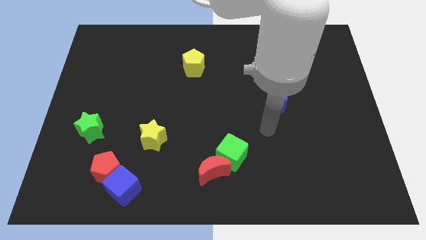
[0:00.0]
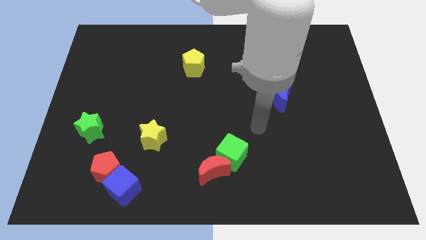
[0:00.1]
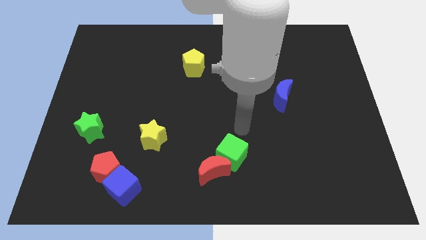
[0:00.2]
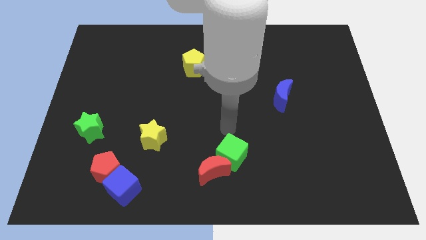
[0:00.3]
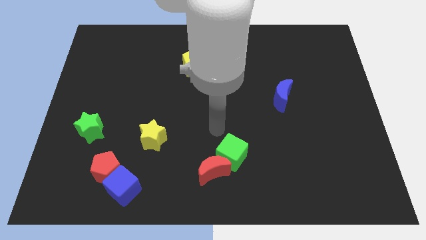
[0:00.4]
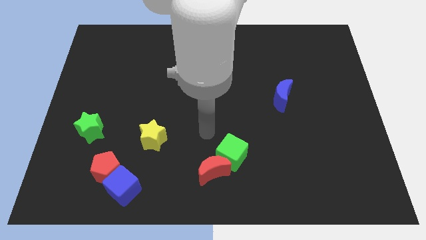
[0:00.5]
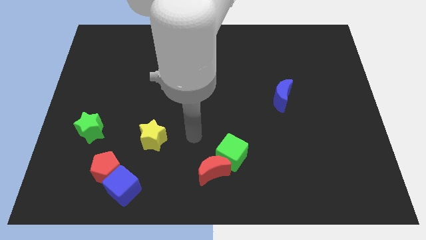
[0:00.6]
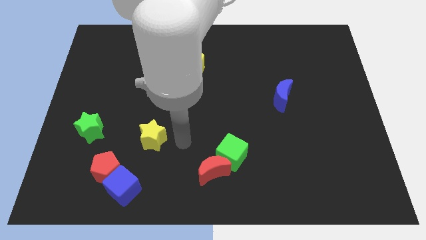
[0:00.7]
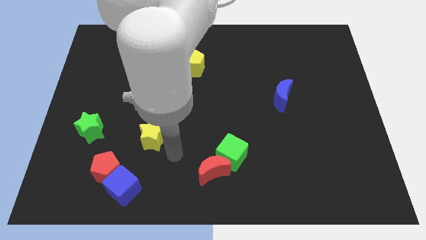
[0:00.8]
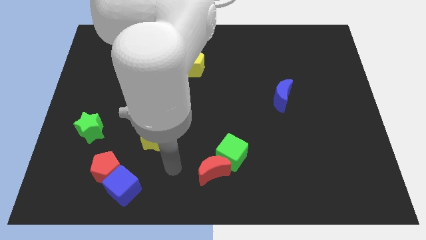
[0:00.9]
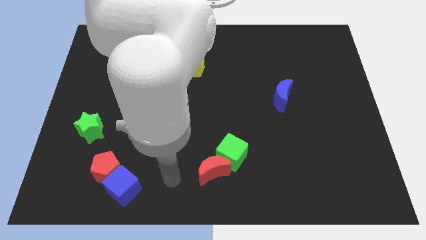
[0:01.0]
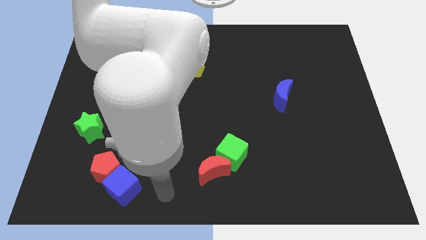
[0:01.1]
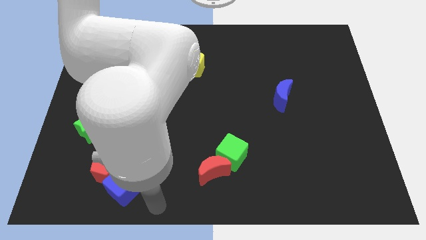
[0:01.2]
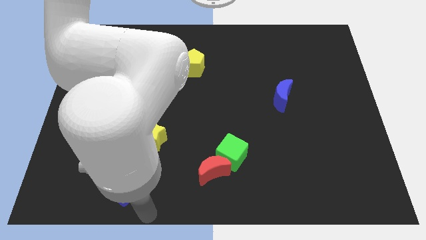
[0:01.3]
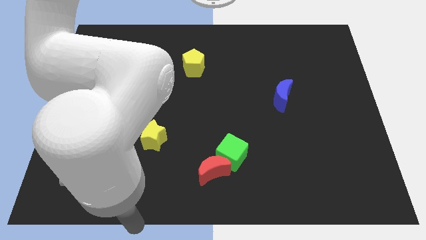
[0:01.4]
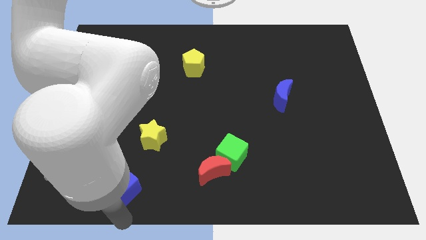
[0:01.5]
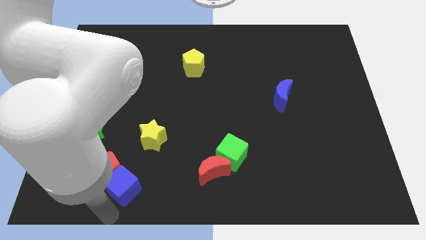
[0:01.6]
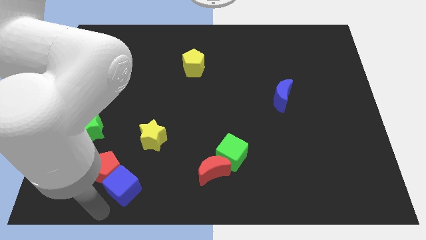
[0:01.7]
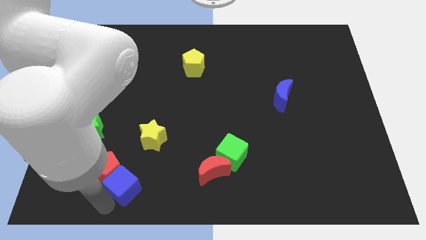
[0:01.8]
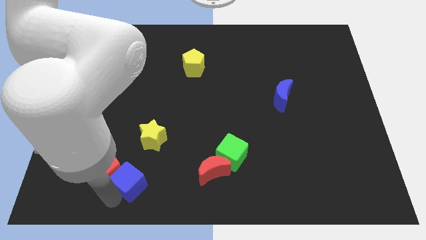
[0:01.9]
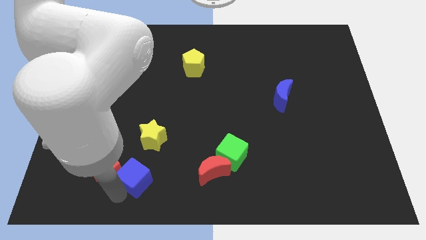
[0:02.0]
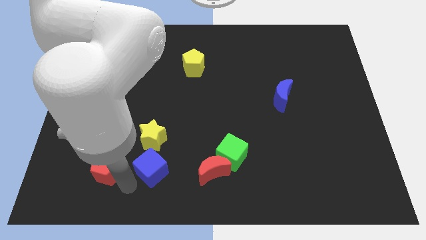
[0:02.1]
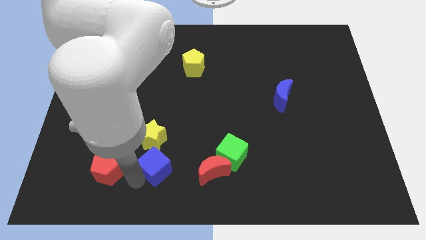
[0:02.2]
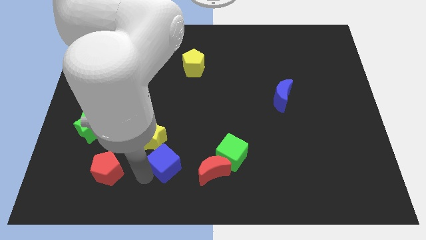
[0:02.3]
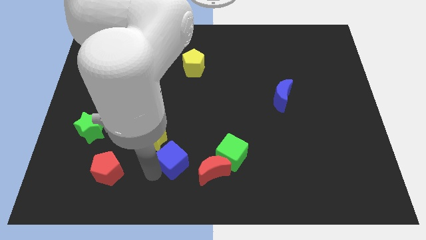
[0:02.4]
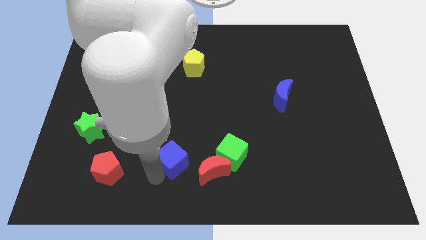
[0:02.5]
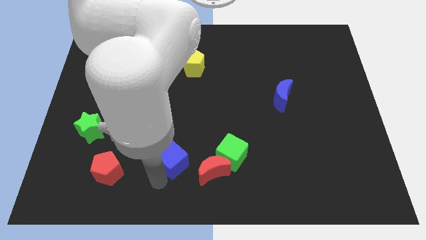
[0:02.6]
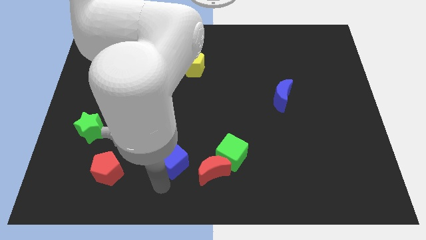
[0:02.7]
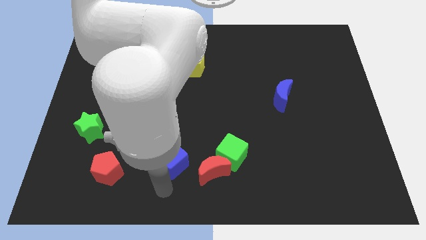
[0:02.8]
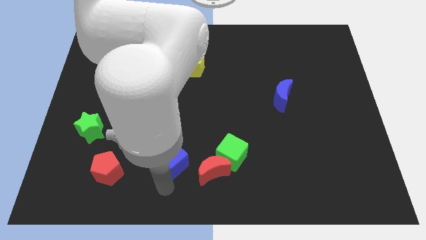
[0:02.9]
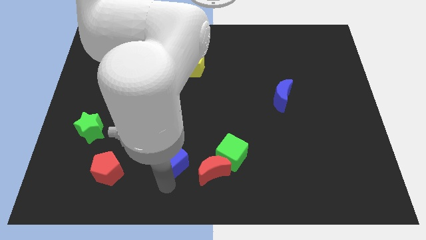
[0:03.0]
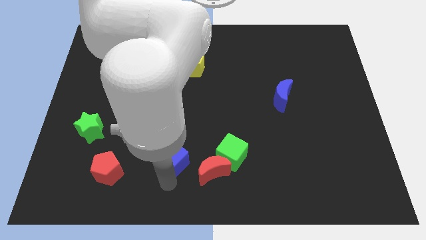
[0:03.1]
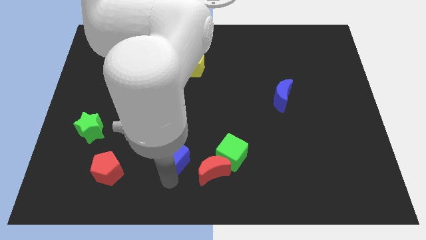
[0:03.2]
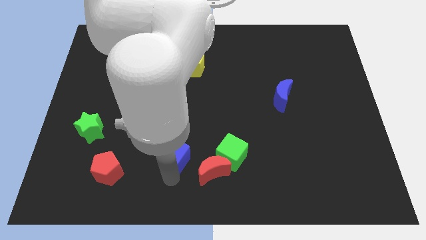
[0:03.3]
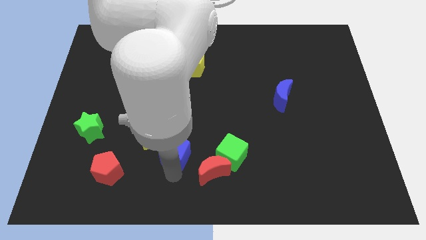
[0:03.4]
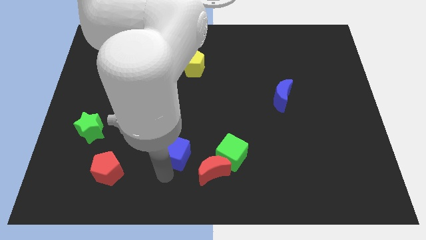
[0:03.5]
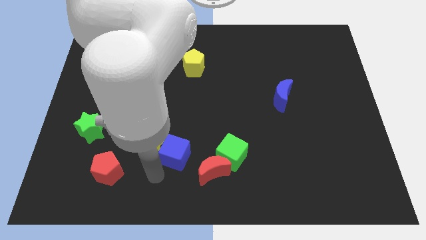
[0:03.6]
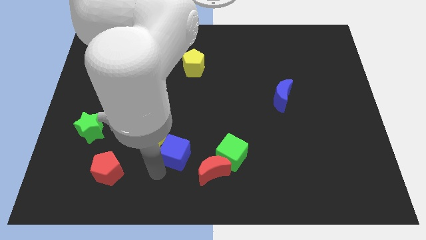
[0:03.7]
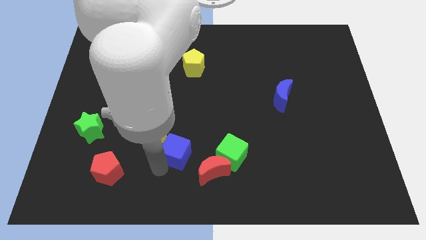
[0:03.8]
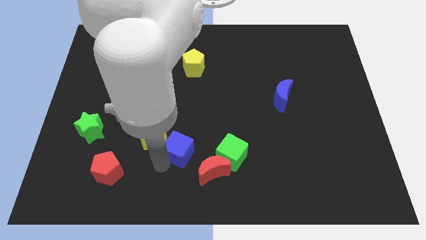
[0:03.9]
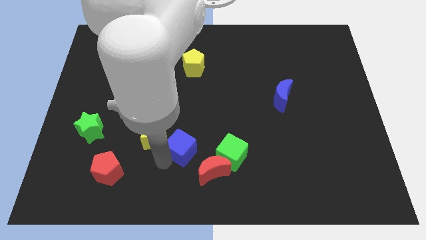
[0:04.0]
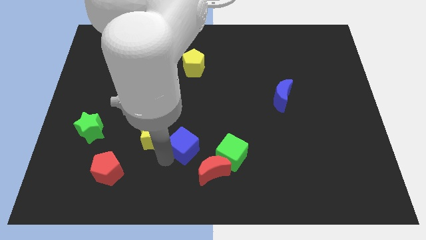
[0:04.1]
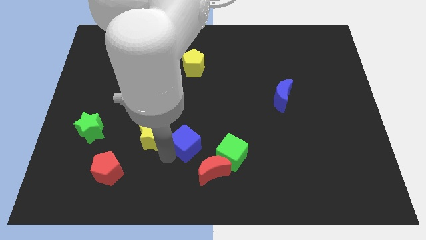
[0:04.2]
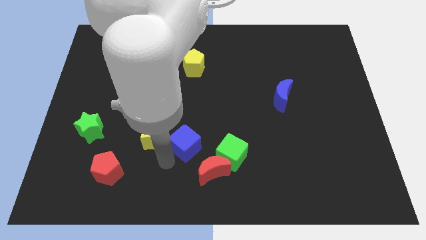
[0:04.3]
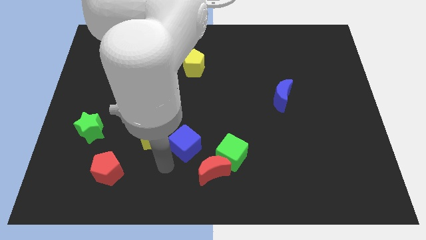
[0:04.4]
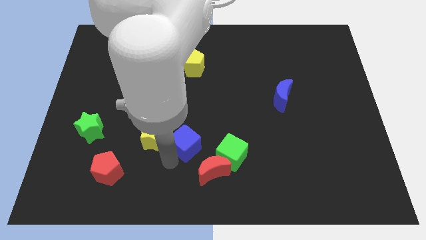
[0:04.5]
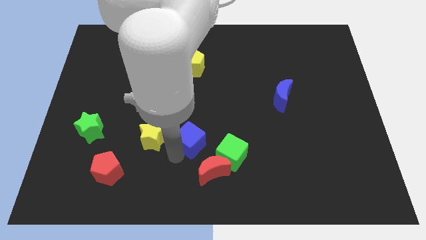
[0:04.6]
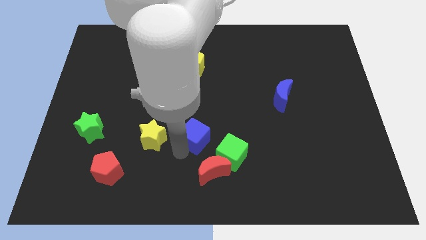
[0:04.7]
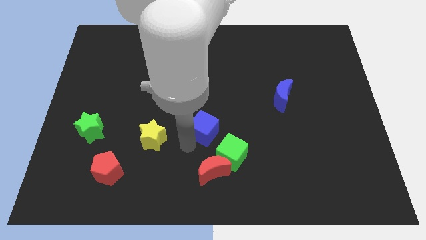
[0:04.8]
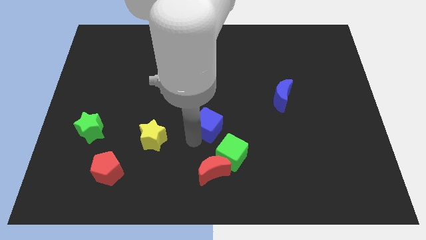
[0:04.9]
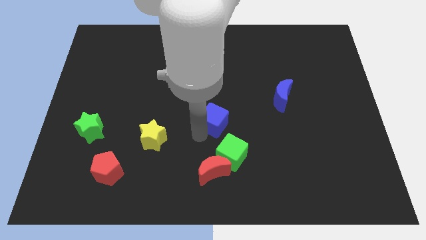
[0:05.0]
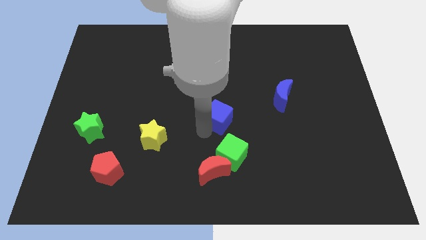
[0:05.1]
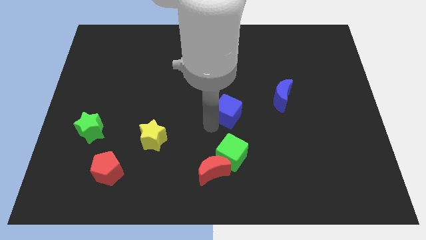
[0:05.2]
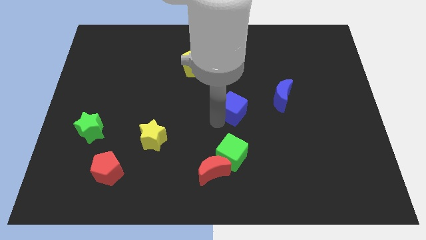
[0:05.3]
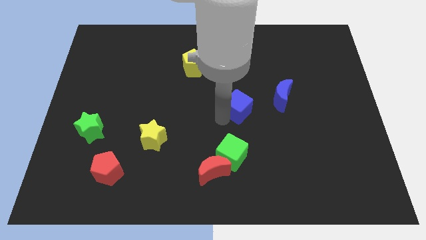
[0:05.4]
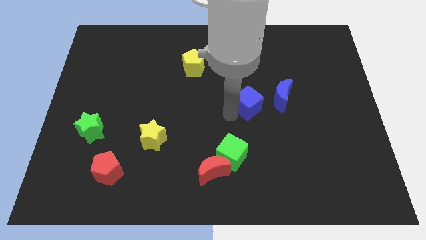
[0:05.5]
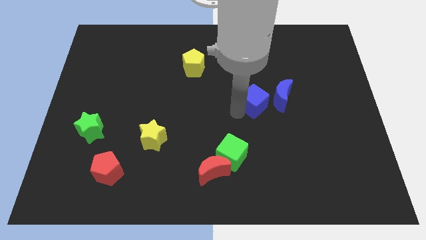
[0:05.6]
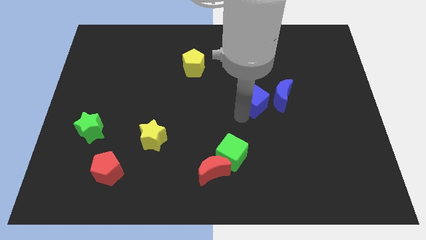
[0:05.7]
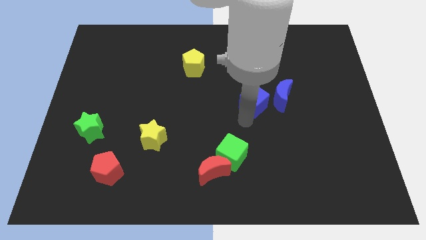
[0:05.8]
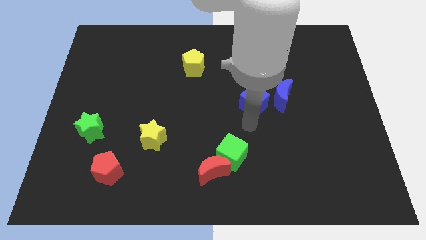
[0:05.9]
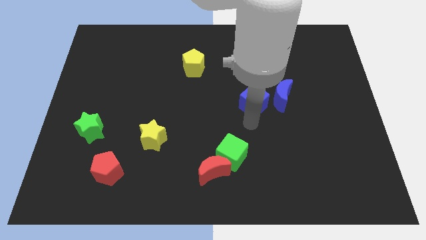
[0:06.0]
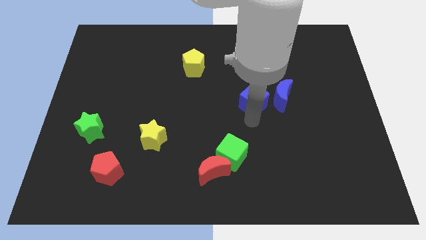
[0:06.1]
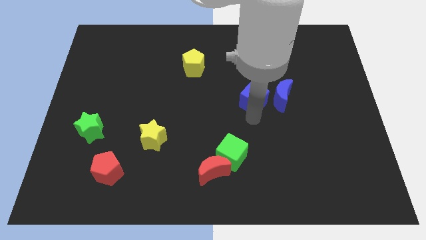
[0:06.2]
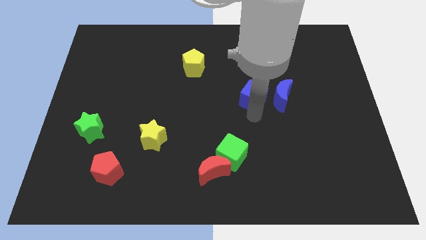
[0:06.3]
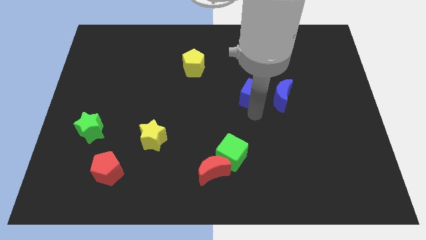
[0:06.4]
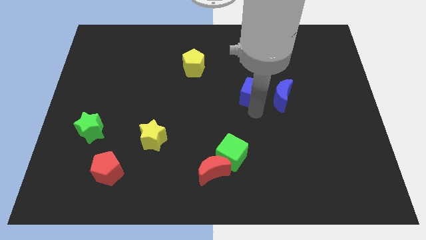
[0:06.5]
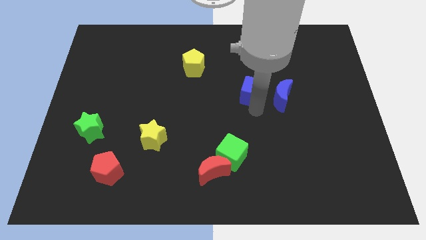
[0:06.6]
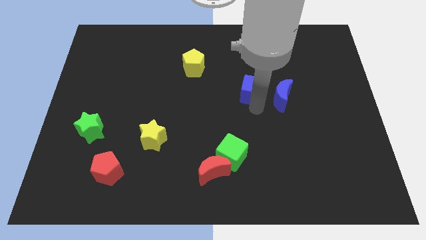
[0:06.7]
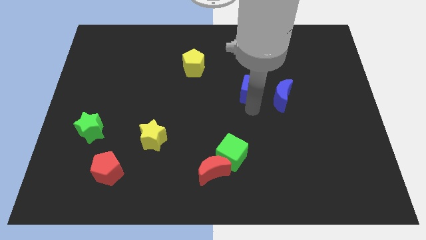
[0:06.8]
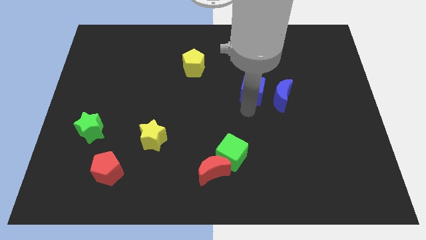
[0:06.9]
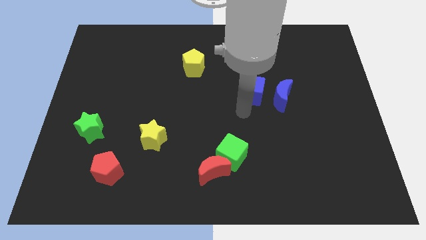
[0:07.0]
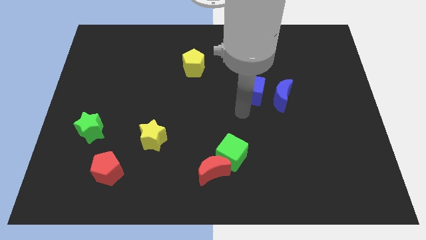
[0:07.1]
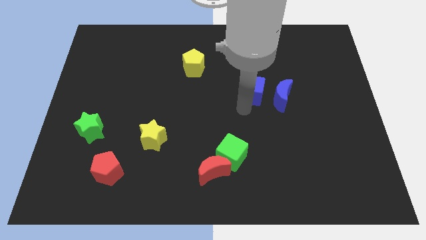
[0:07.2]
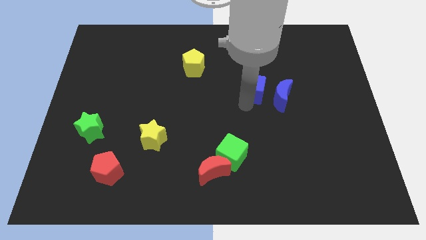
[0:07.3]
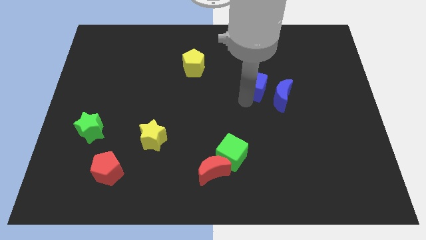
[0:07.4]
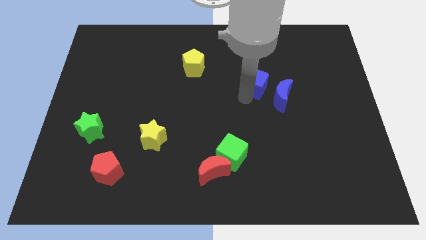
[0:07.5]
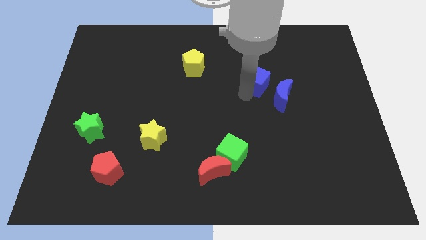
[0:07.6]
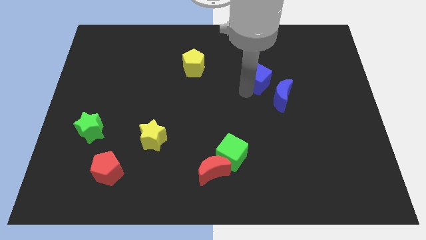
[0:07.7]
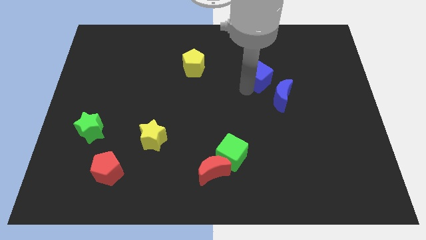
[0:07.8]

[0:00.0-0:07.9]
put the blue cube to the top of the blue moon
